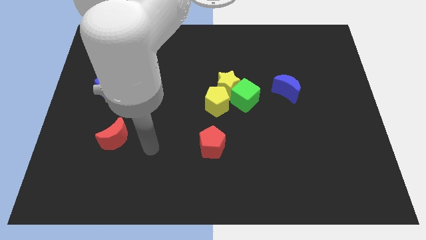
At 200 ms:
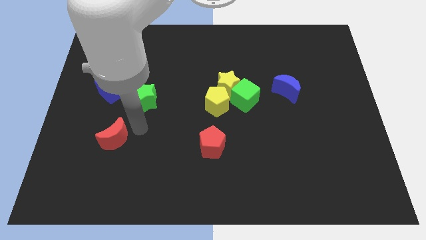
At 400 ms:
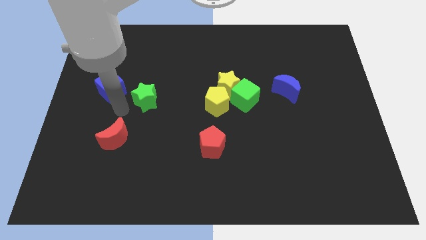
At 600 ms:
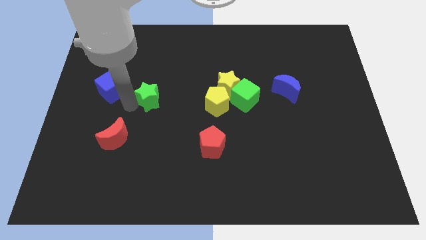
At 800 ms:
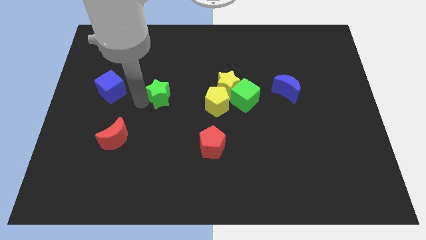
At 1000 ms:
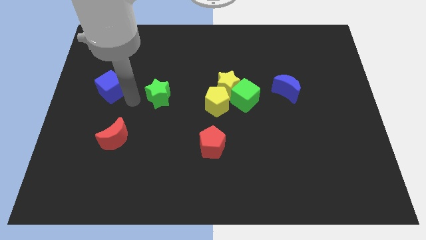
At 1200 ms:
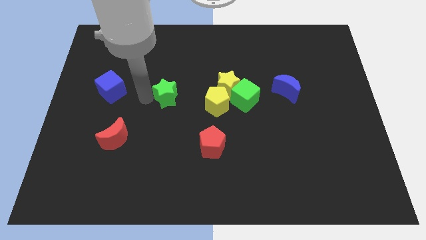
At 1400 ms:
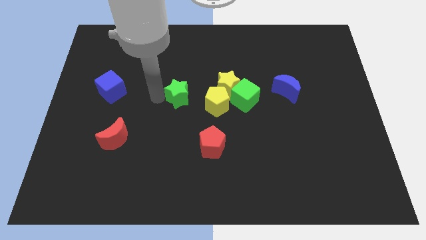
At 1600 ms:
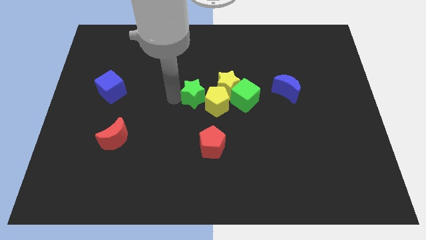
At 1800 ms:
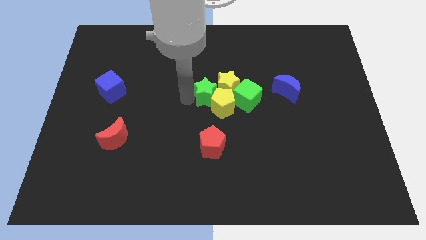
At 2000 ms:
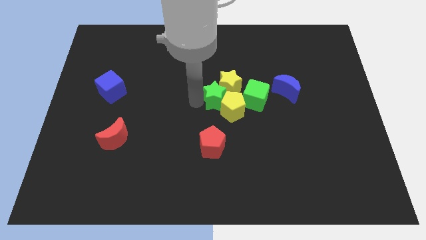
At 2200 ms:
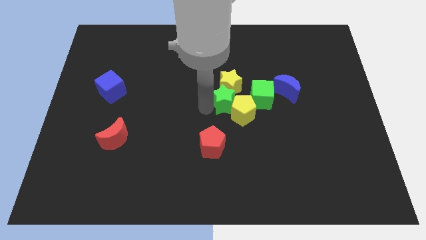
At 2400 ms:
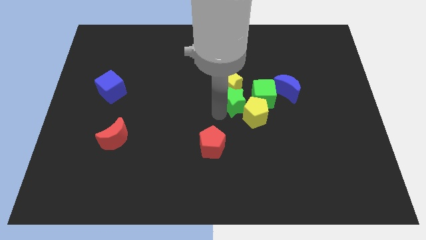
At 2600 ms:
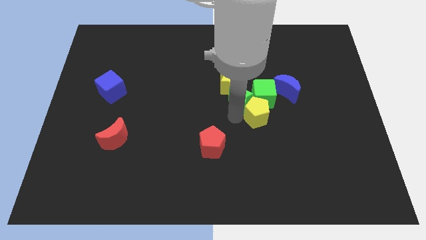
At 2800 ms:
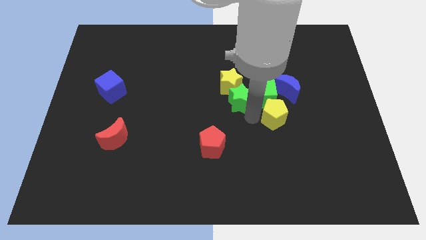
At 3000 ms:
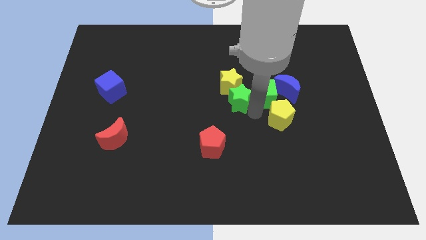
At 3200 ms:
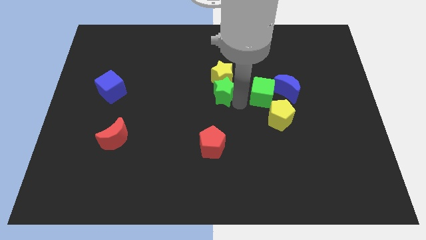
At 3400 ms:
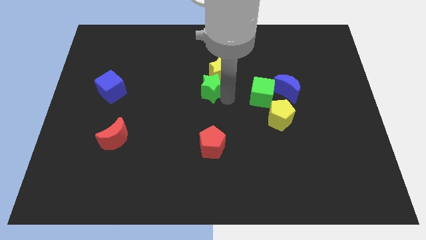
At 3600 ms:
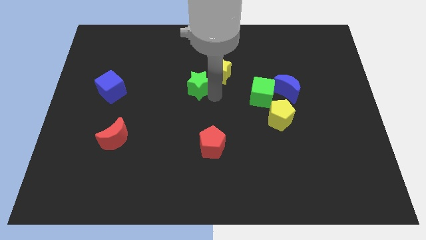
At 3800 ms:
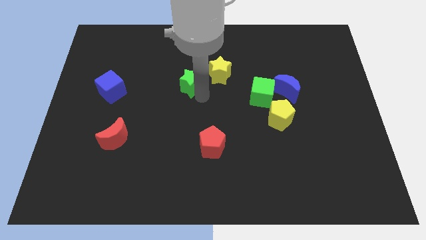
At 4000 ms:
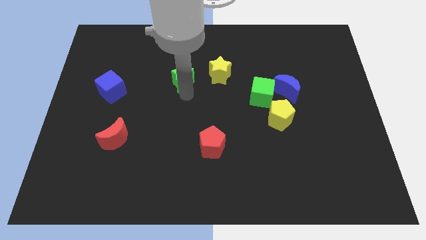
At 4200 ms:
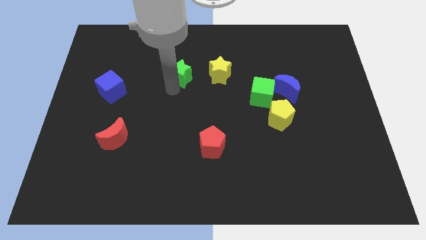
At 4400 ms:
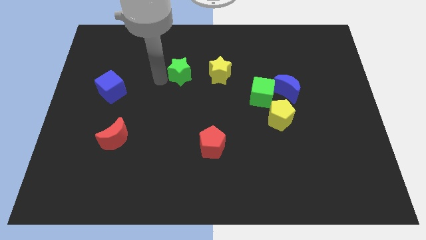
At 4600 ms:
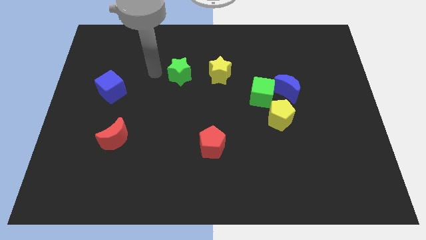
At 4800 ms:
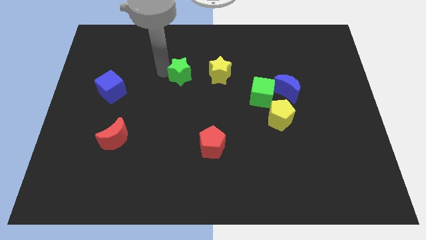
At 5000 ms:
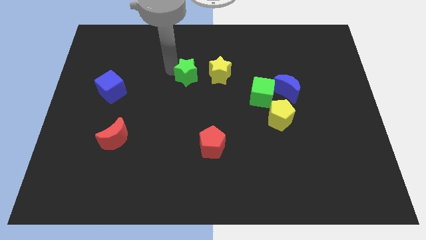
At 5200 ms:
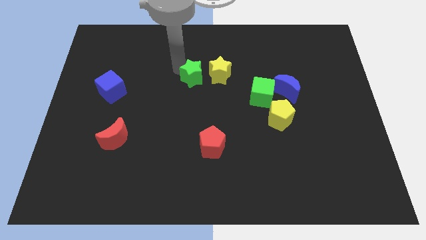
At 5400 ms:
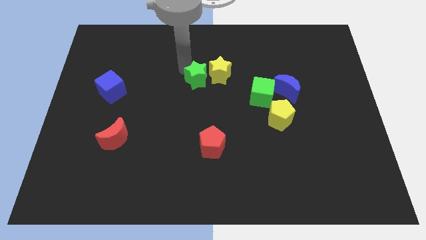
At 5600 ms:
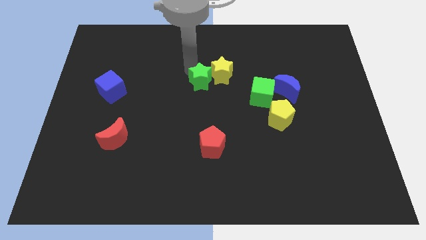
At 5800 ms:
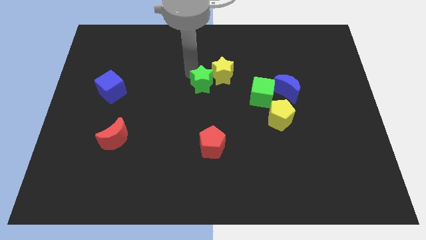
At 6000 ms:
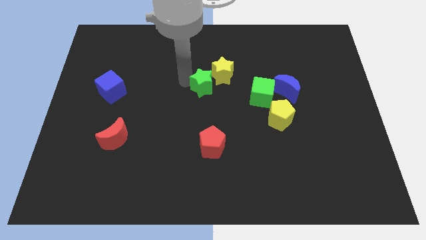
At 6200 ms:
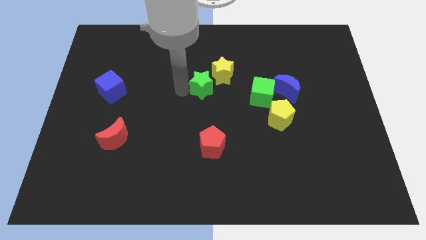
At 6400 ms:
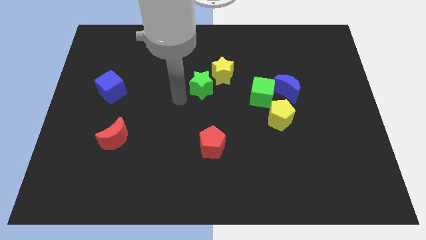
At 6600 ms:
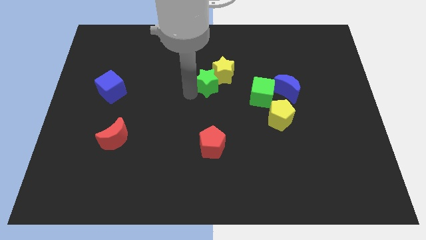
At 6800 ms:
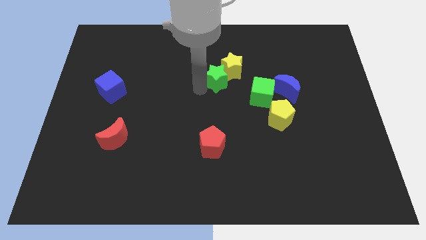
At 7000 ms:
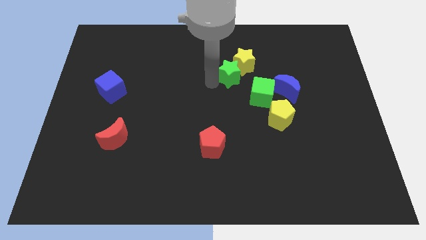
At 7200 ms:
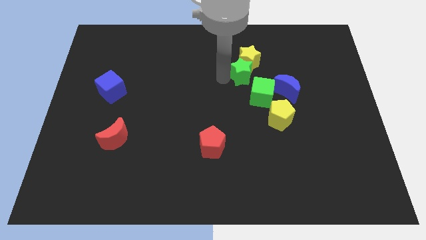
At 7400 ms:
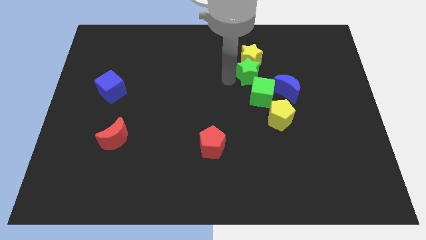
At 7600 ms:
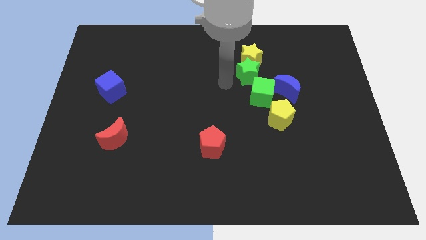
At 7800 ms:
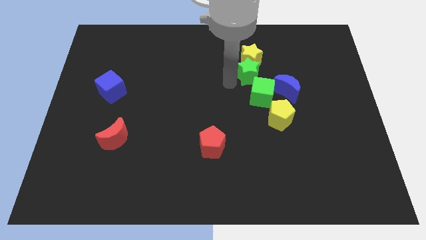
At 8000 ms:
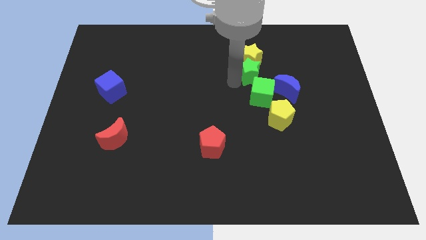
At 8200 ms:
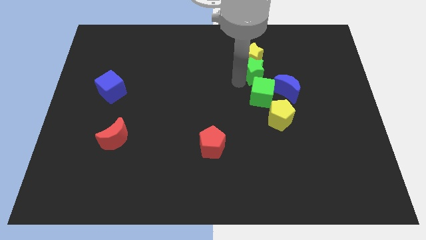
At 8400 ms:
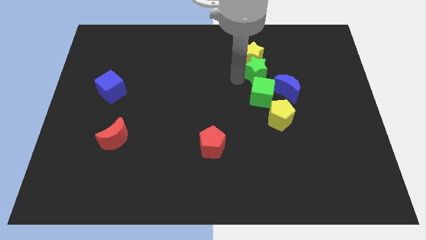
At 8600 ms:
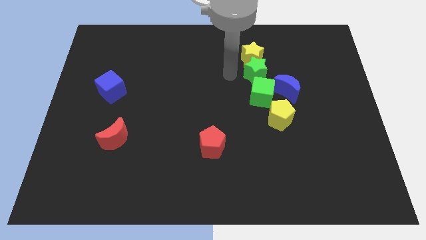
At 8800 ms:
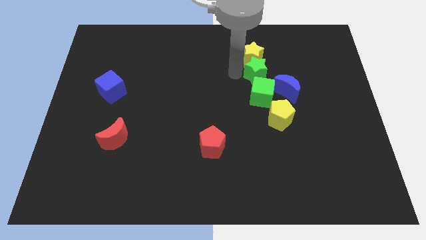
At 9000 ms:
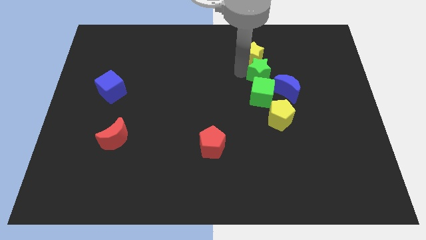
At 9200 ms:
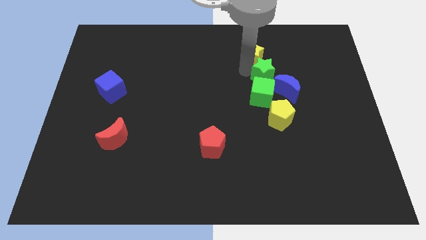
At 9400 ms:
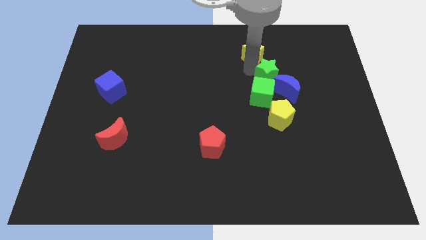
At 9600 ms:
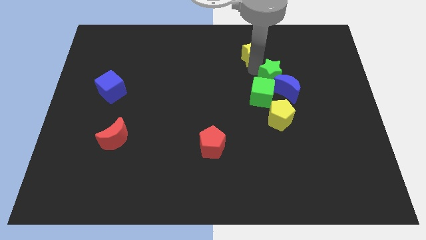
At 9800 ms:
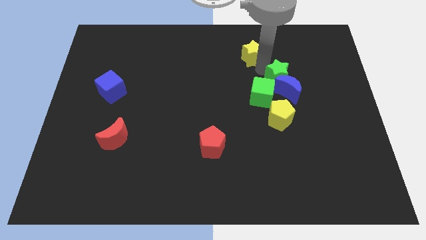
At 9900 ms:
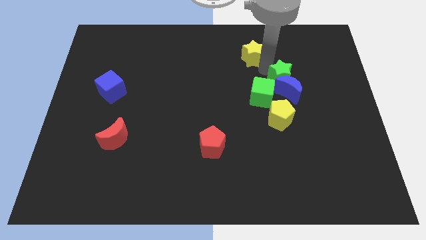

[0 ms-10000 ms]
put the green star to the top right of the blue moon

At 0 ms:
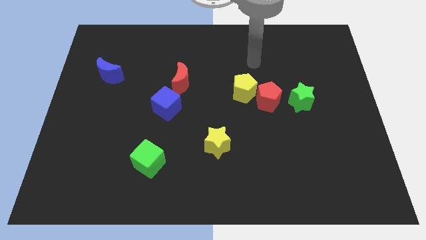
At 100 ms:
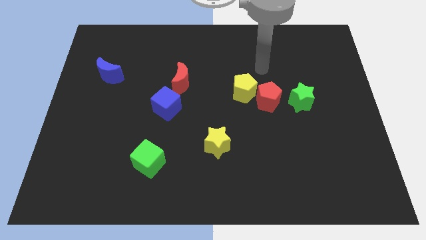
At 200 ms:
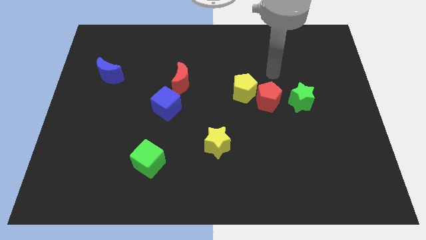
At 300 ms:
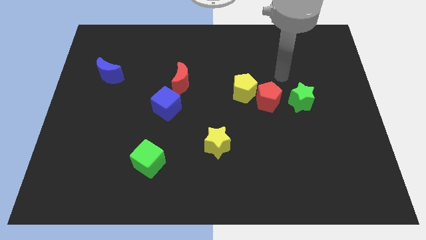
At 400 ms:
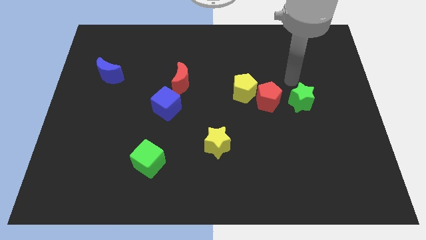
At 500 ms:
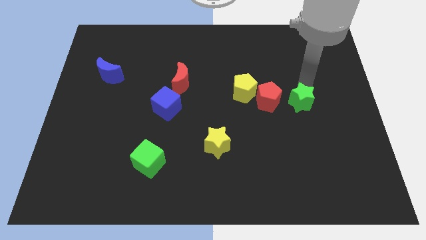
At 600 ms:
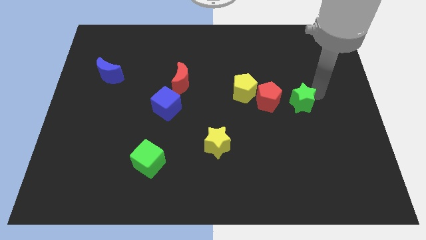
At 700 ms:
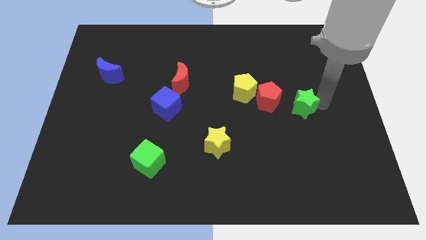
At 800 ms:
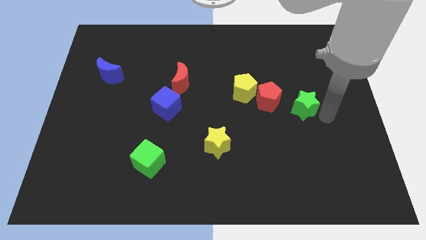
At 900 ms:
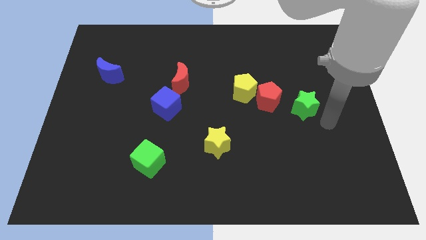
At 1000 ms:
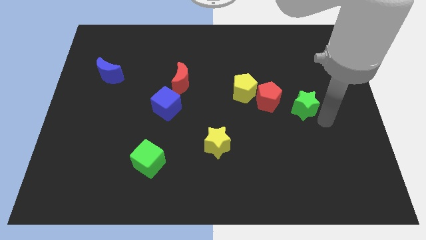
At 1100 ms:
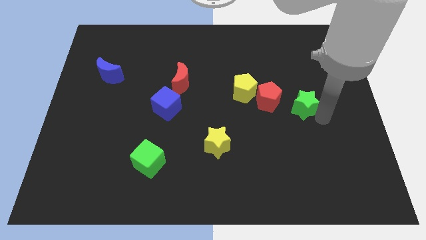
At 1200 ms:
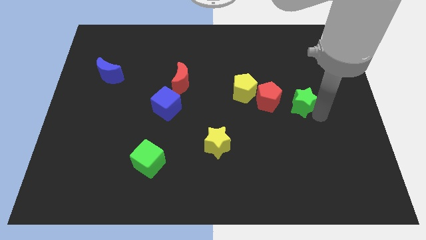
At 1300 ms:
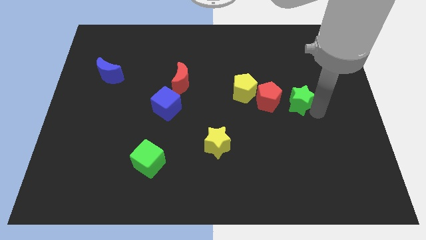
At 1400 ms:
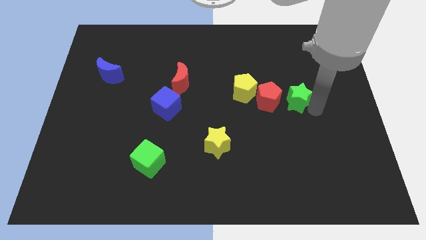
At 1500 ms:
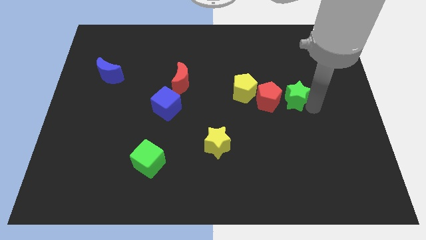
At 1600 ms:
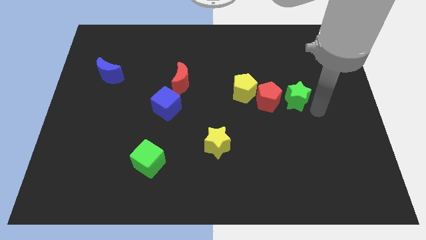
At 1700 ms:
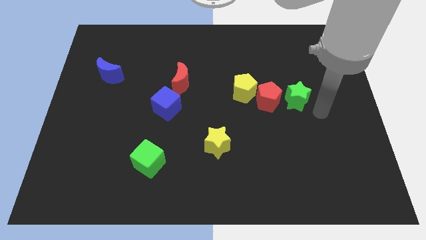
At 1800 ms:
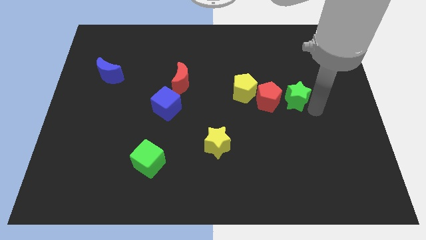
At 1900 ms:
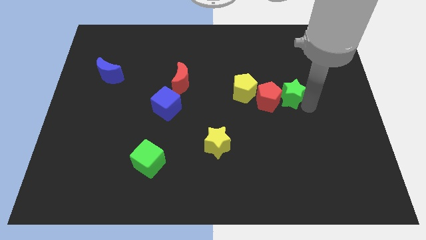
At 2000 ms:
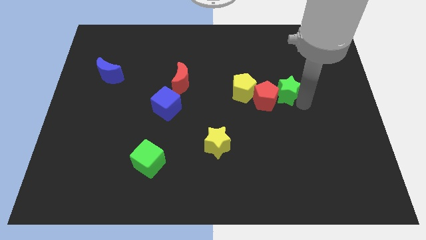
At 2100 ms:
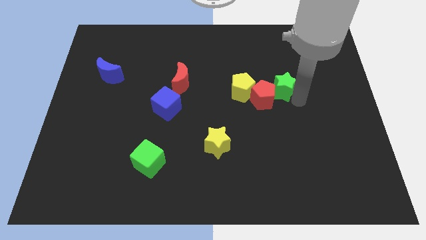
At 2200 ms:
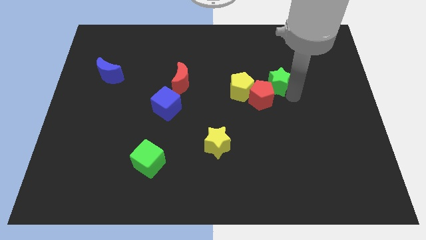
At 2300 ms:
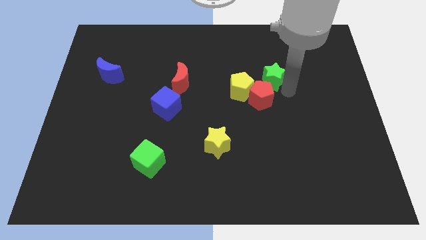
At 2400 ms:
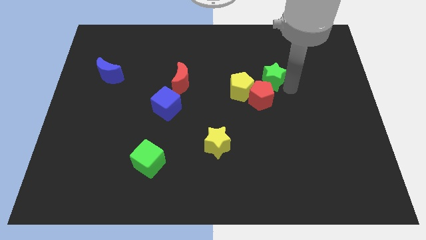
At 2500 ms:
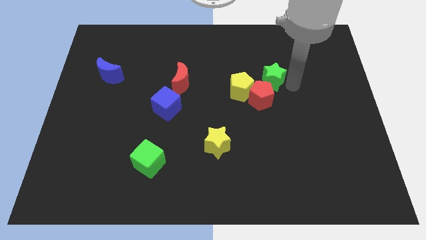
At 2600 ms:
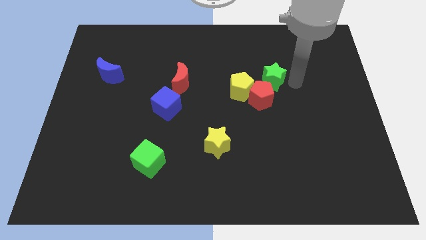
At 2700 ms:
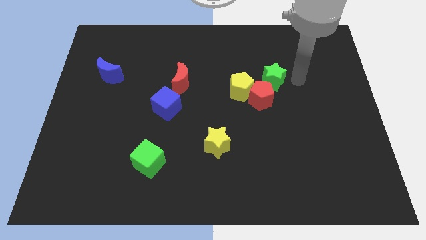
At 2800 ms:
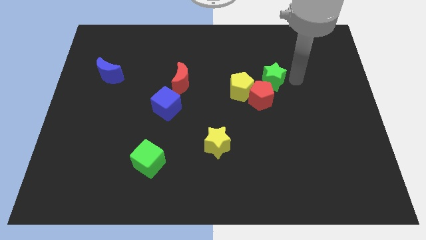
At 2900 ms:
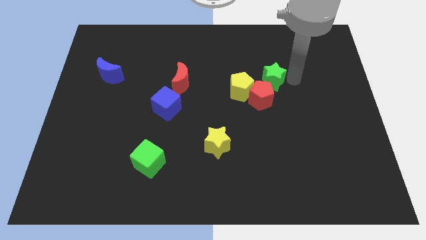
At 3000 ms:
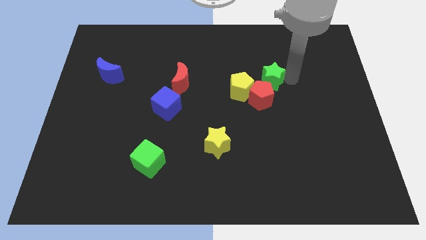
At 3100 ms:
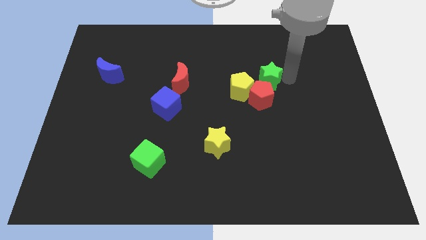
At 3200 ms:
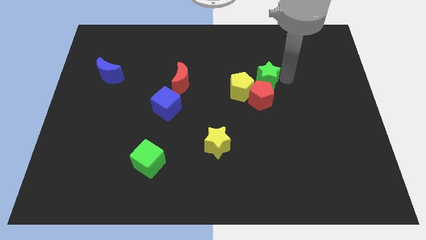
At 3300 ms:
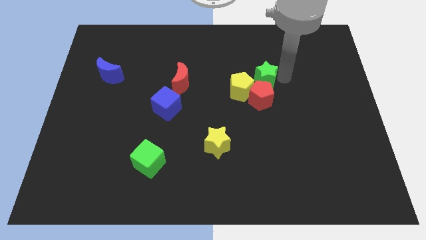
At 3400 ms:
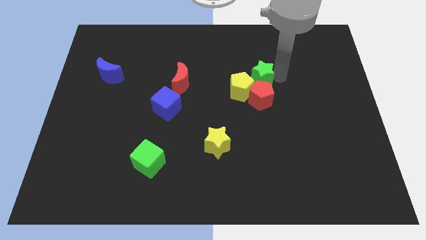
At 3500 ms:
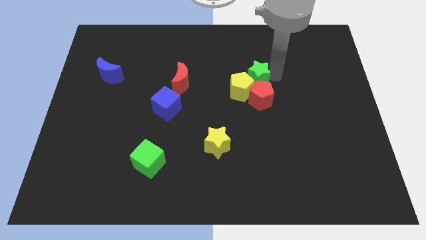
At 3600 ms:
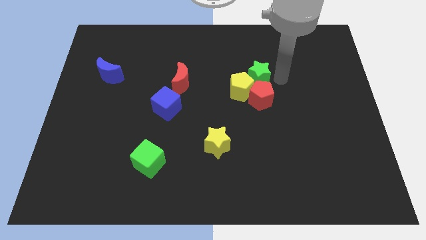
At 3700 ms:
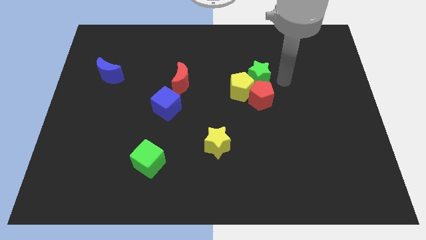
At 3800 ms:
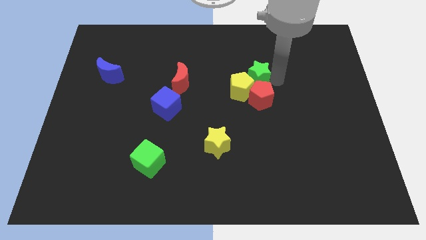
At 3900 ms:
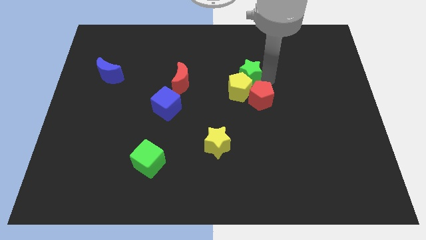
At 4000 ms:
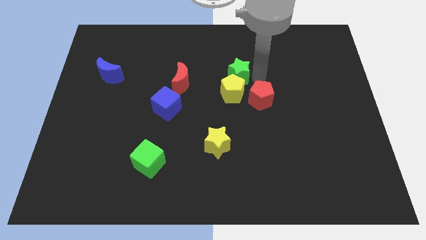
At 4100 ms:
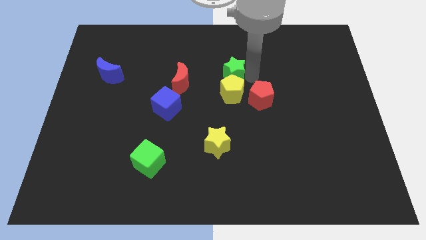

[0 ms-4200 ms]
put the green star diagonally up and to the left of the yellow pentagon
